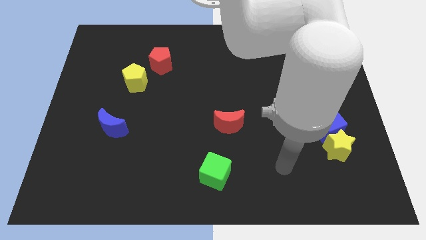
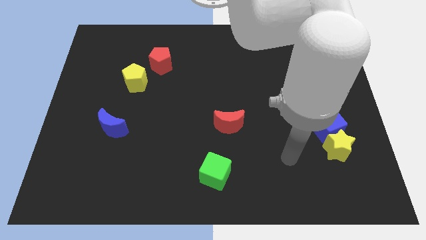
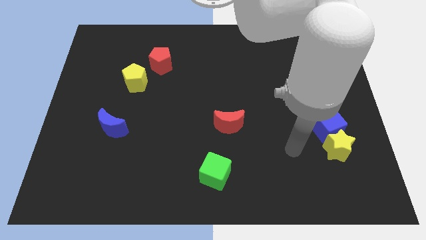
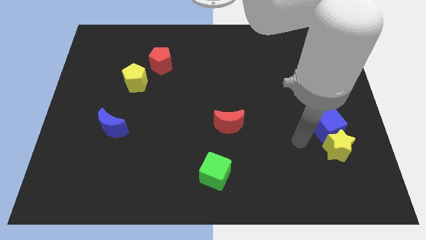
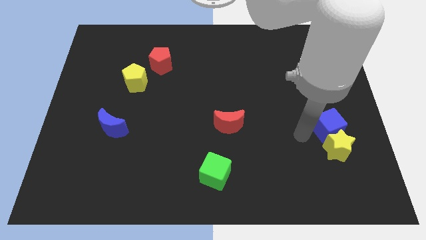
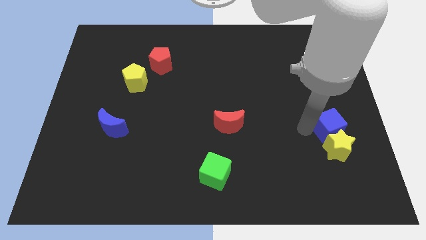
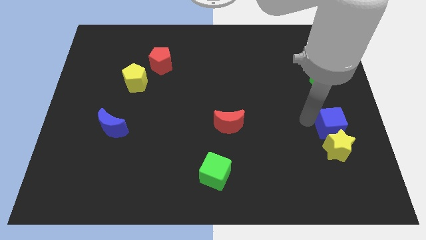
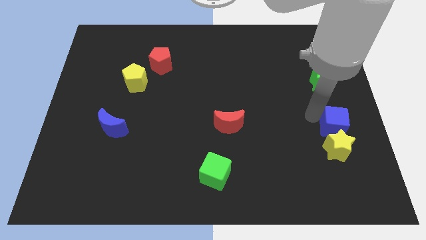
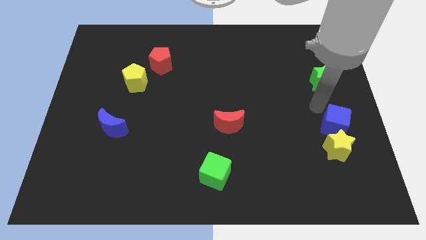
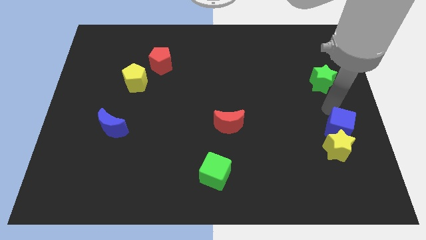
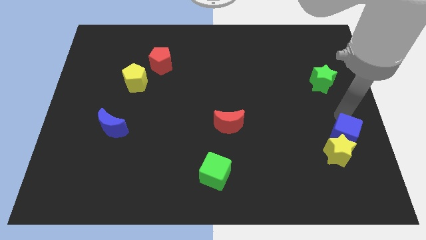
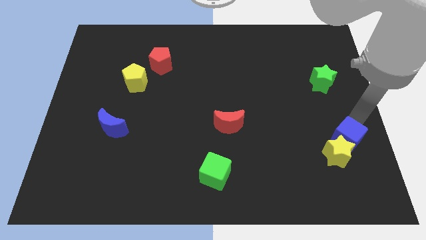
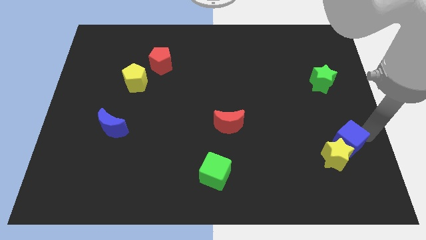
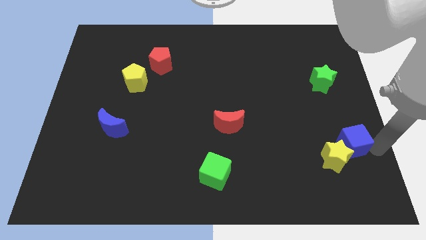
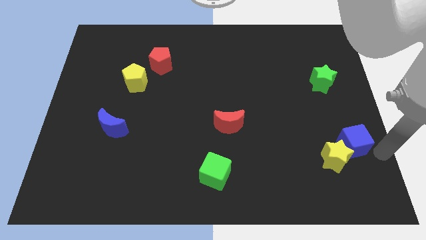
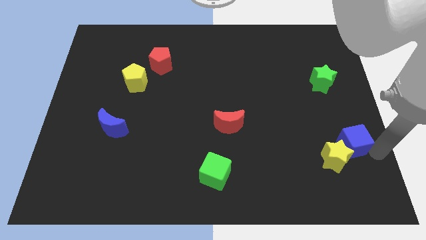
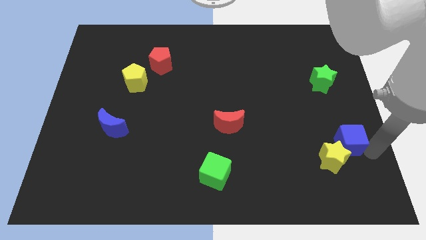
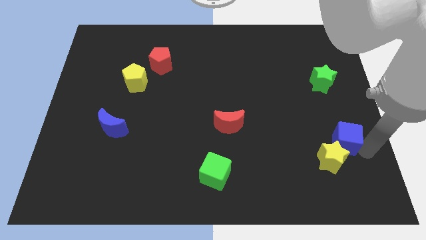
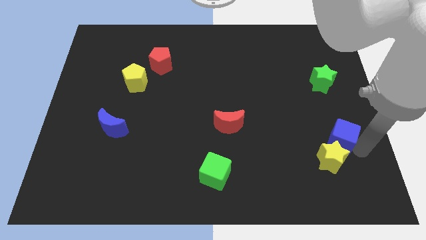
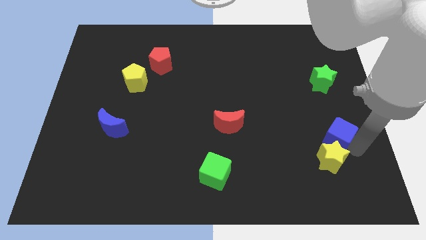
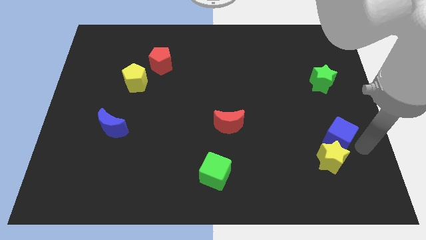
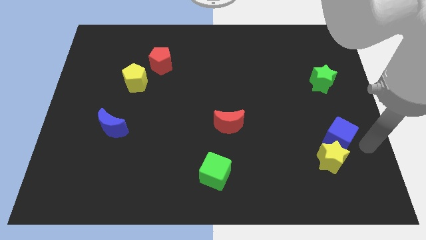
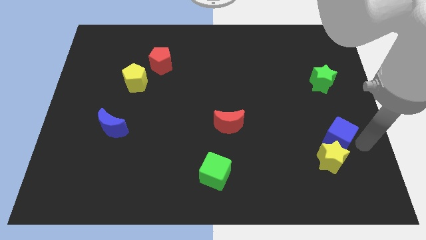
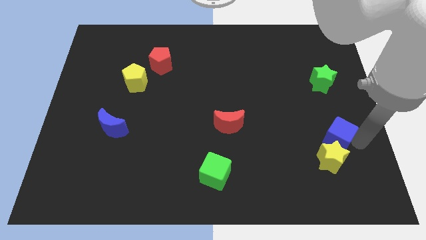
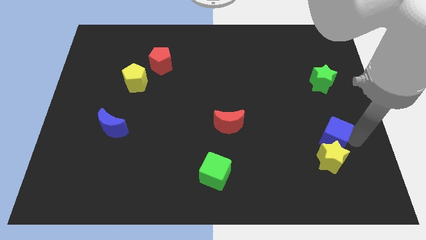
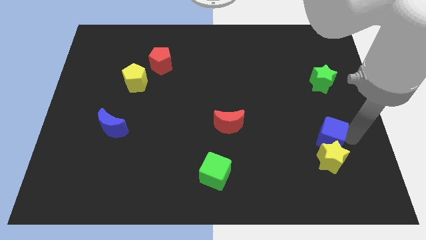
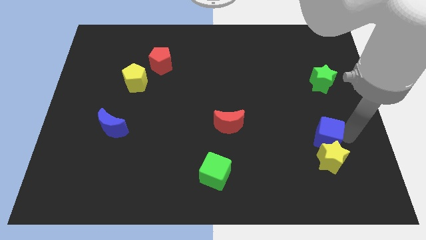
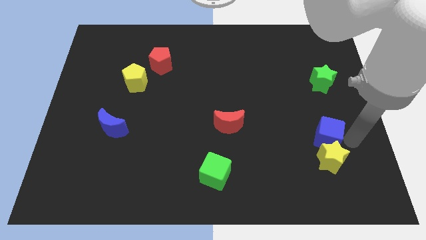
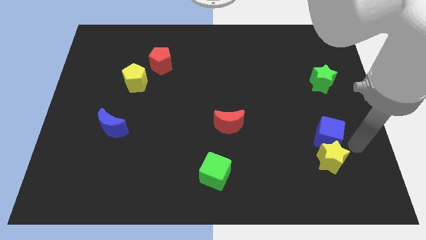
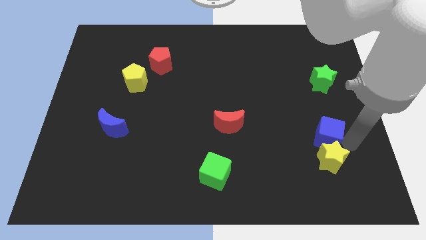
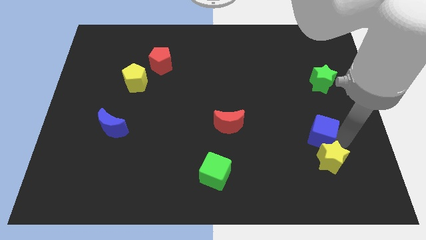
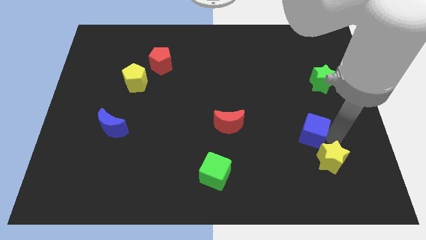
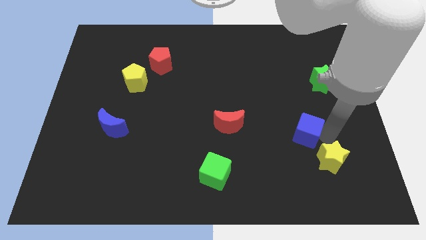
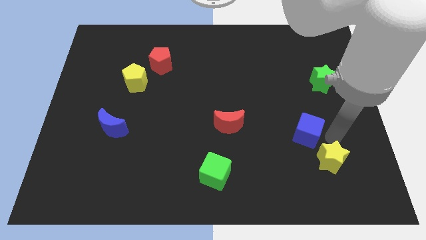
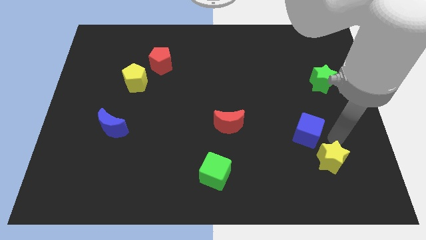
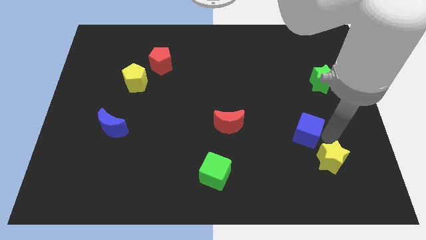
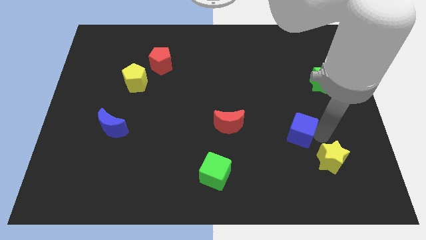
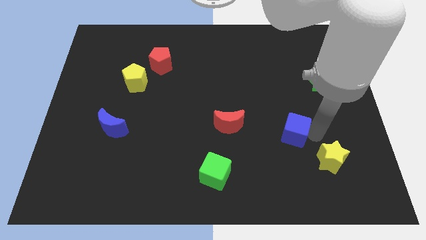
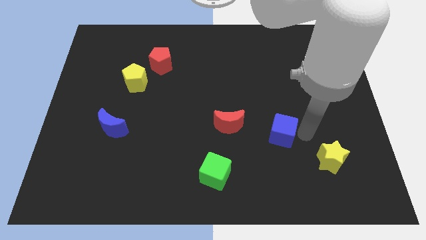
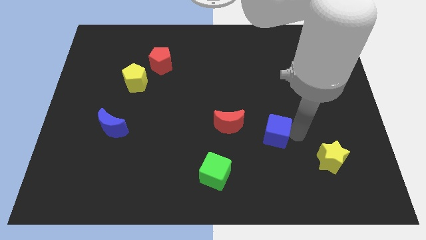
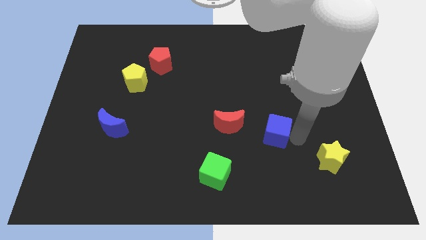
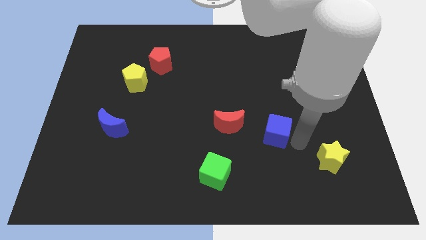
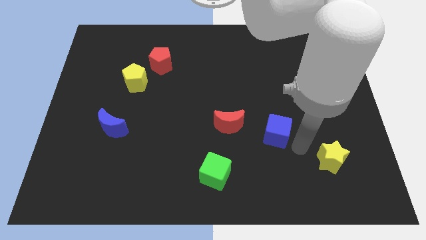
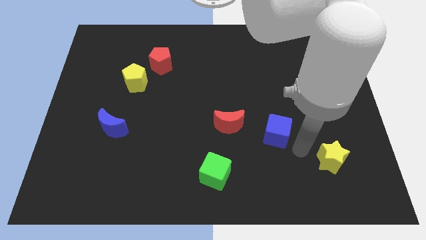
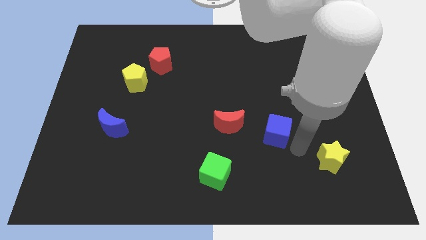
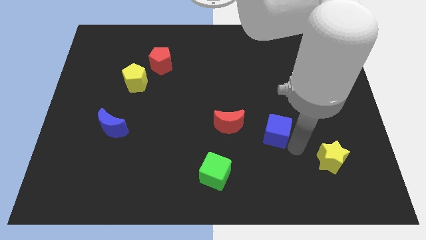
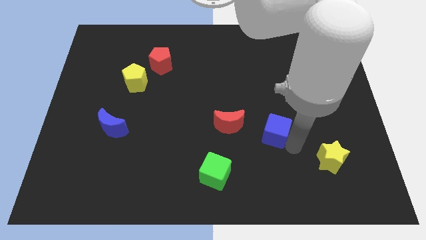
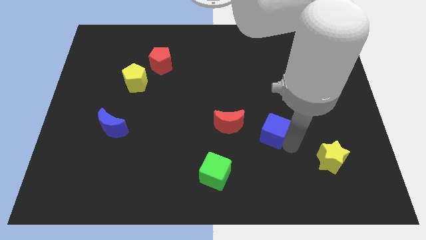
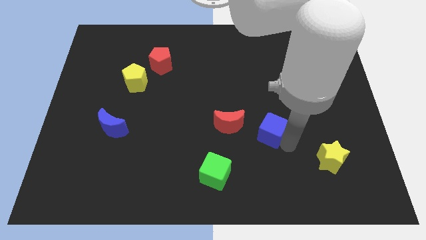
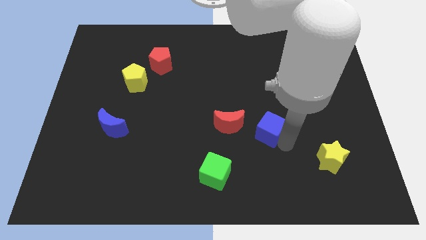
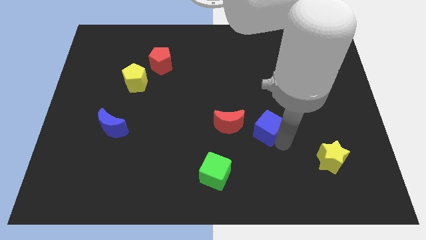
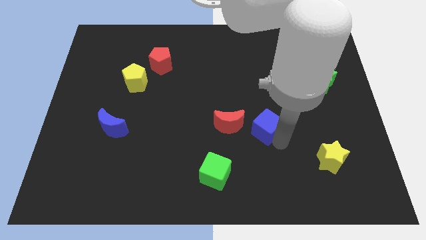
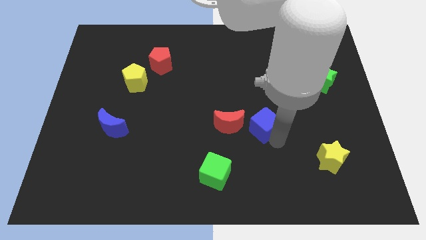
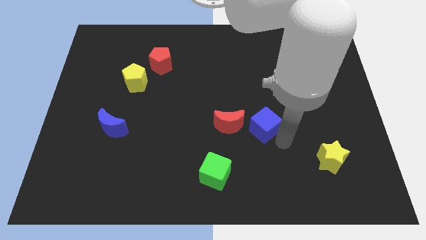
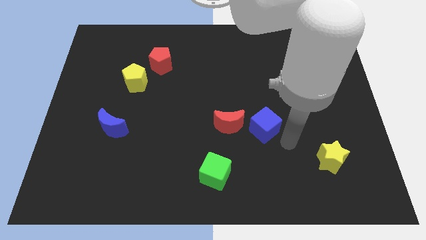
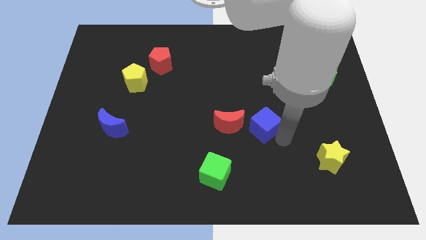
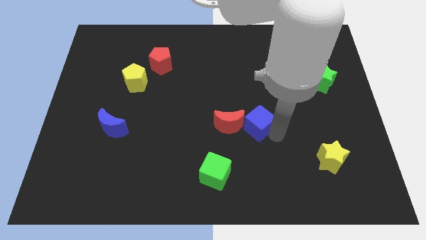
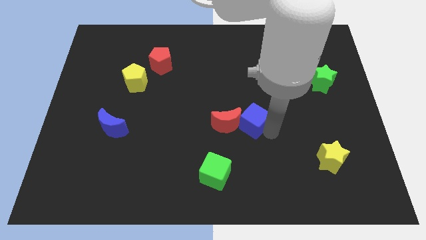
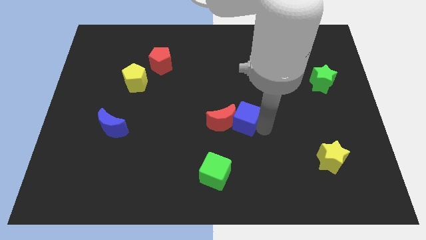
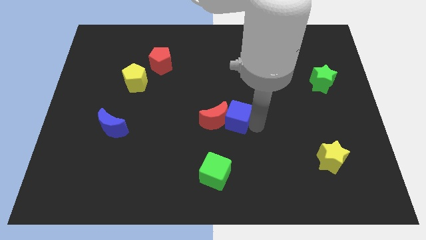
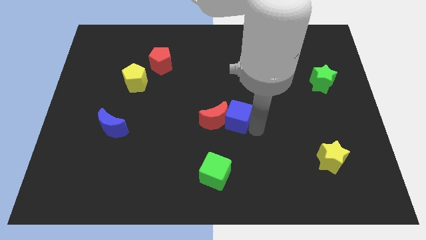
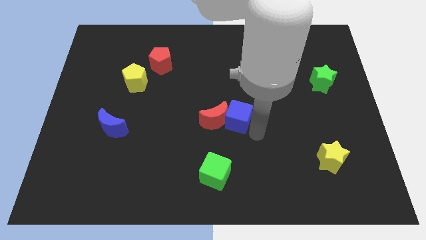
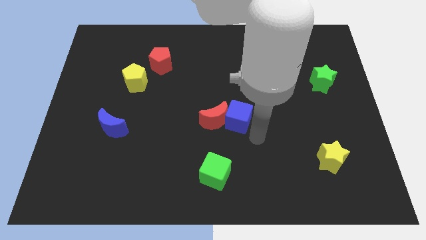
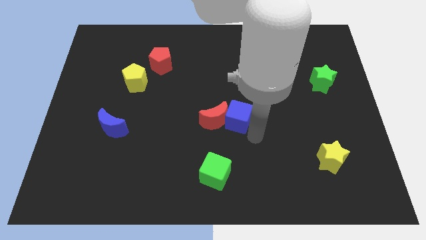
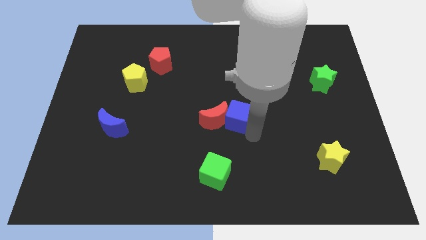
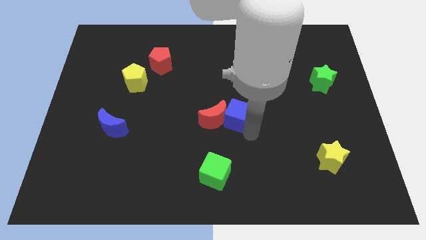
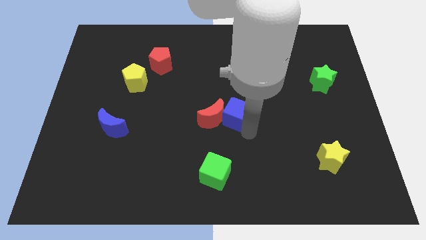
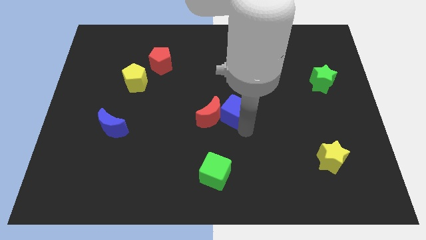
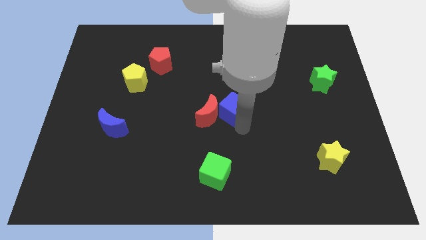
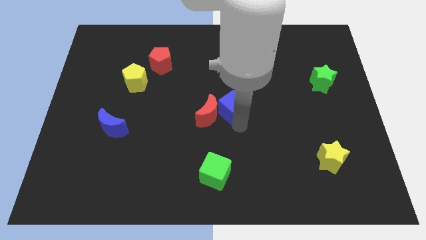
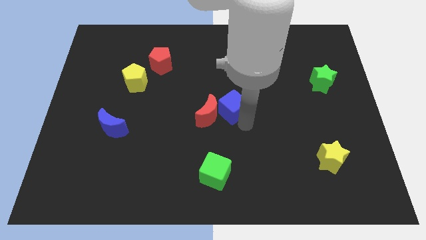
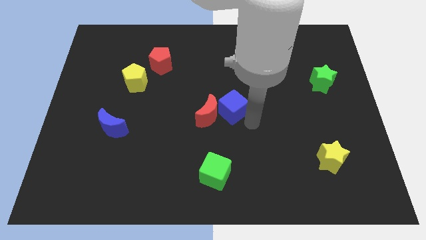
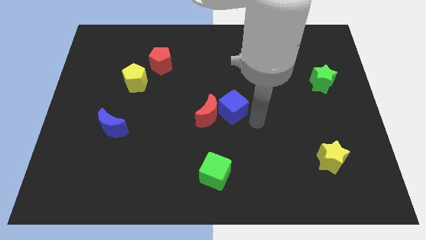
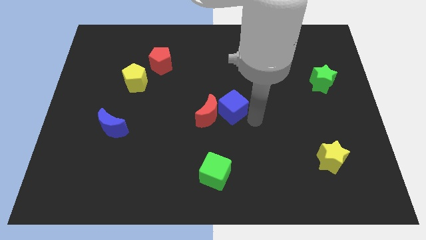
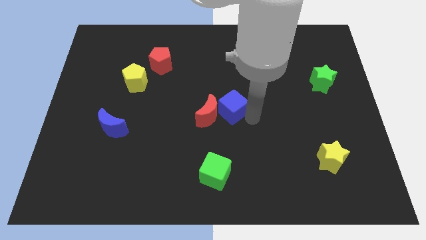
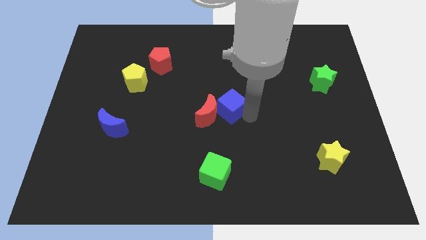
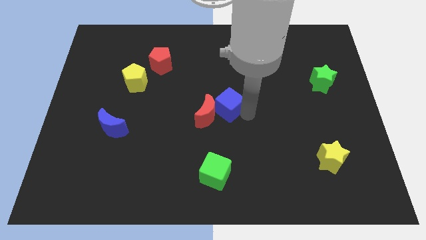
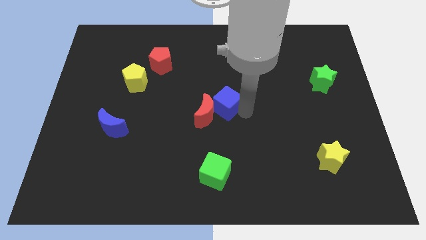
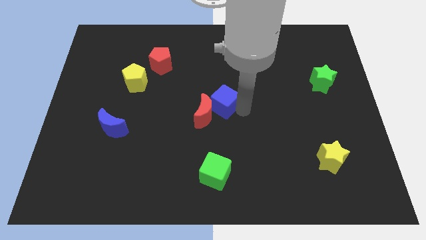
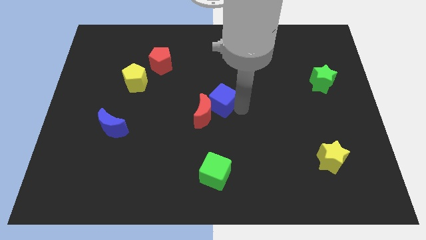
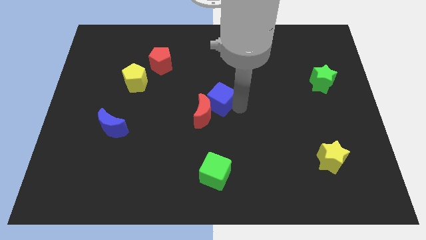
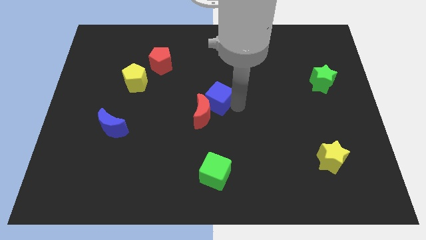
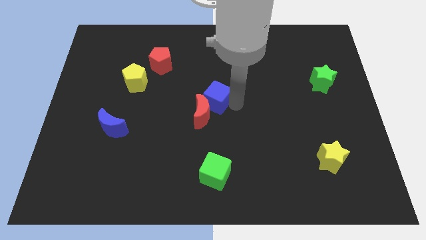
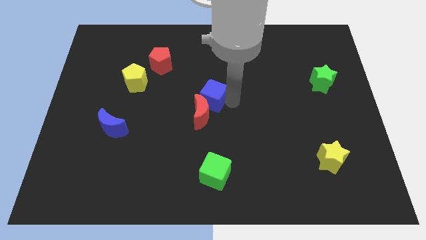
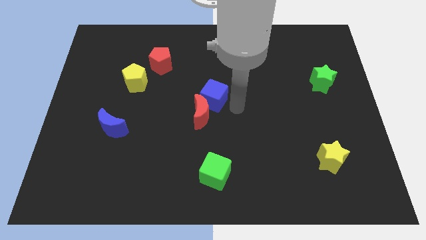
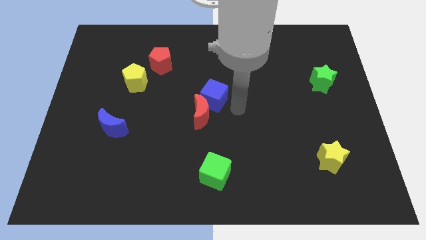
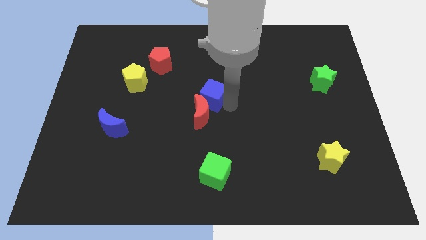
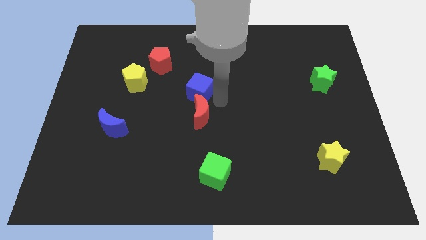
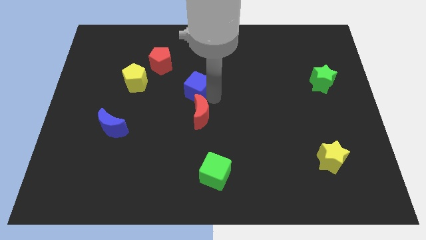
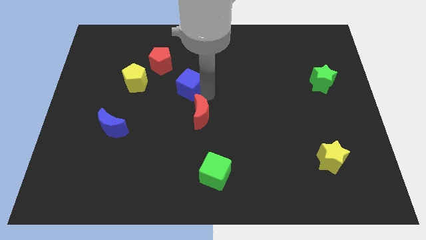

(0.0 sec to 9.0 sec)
slide the blue cube to the right of the yellow pentagon
